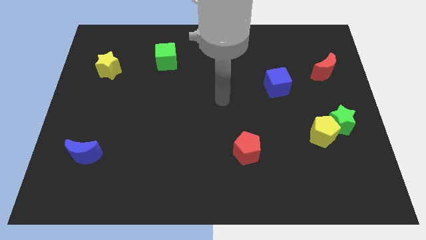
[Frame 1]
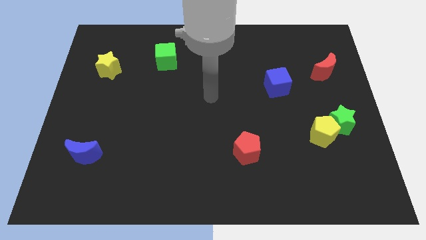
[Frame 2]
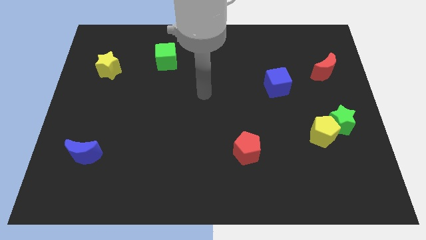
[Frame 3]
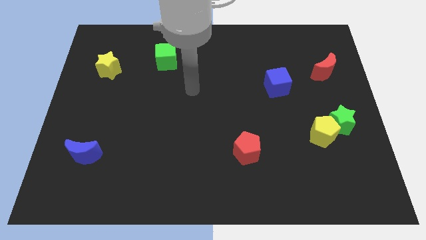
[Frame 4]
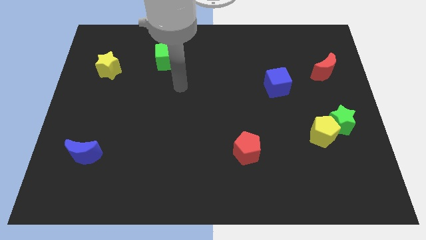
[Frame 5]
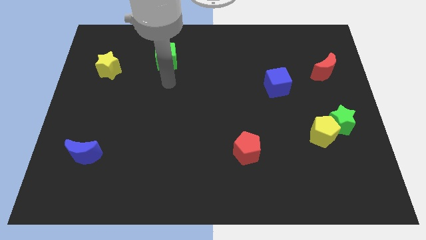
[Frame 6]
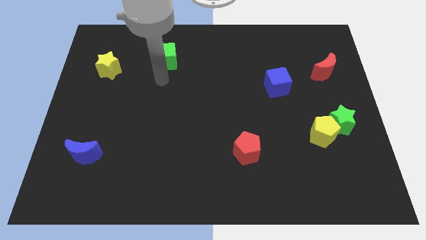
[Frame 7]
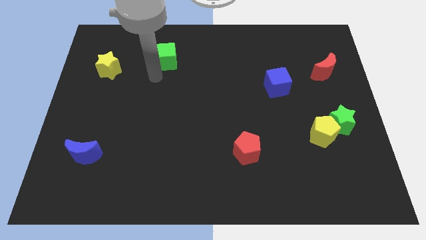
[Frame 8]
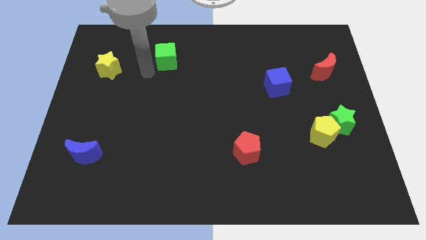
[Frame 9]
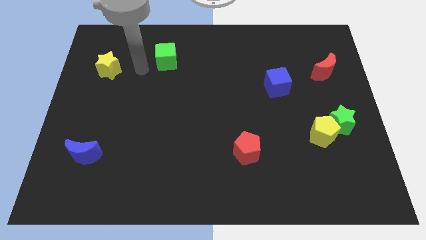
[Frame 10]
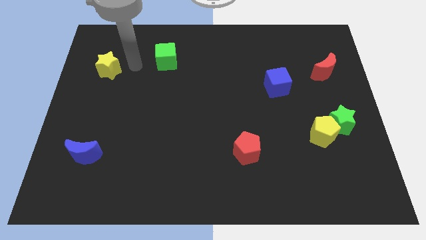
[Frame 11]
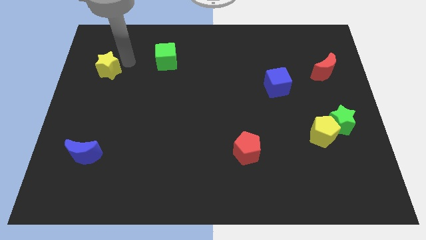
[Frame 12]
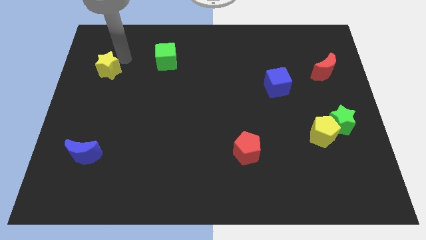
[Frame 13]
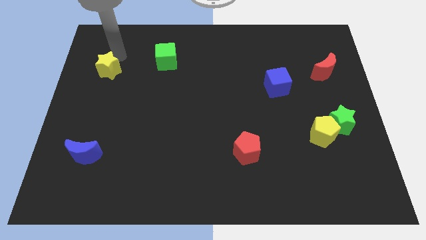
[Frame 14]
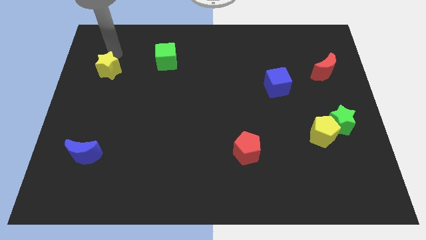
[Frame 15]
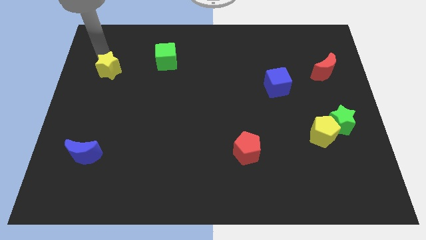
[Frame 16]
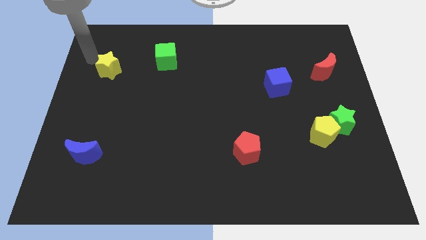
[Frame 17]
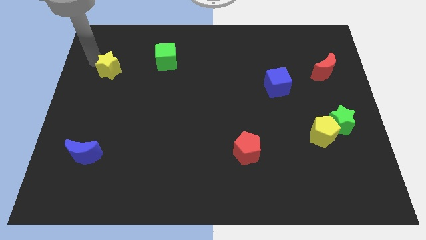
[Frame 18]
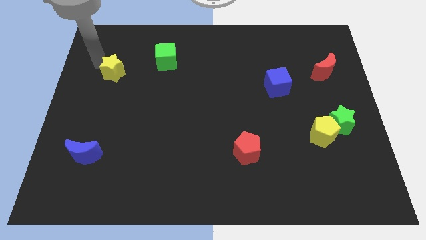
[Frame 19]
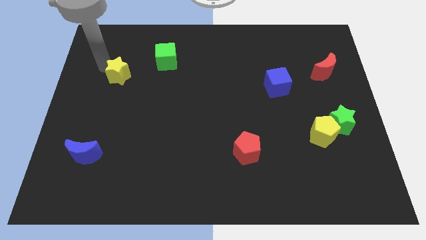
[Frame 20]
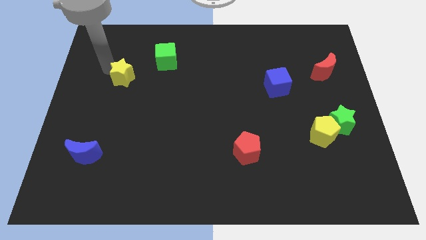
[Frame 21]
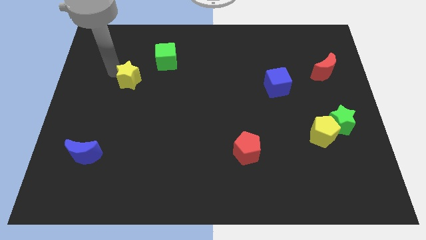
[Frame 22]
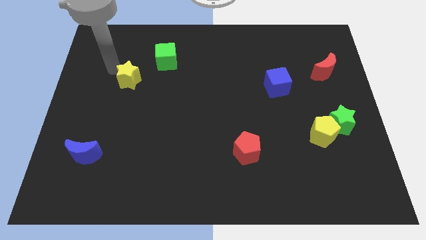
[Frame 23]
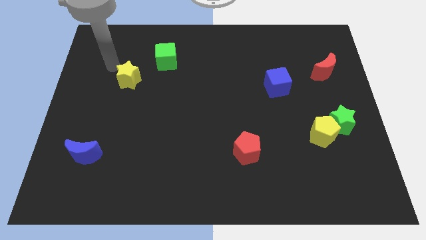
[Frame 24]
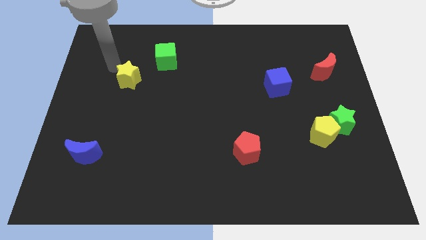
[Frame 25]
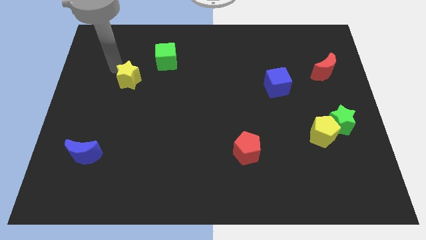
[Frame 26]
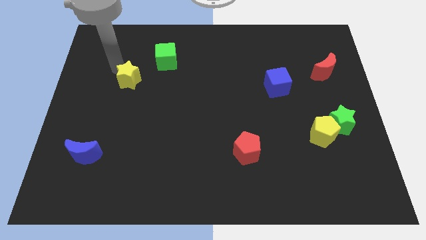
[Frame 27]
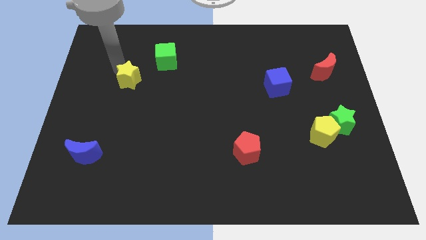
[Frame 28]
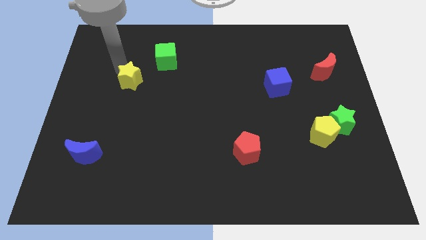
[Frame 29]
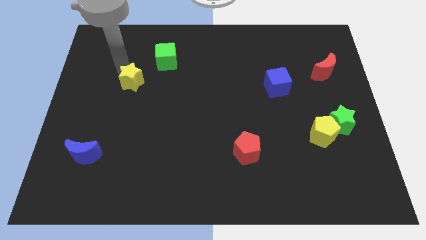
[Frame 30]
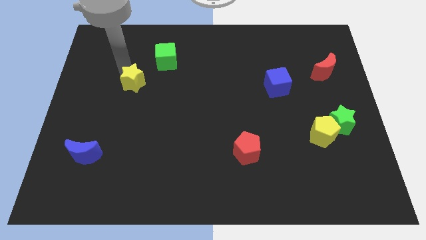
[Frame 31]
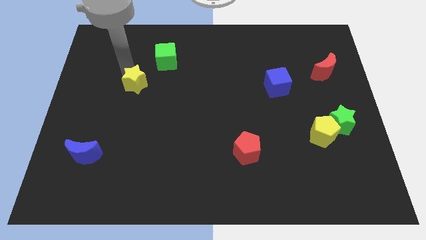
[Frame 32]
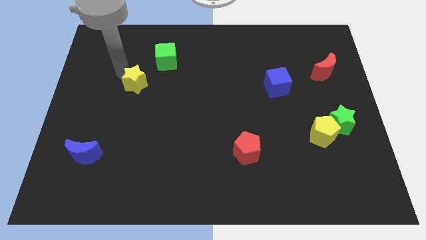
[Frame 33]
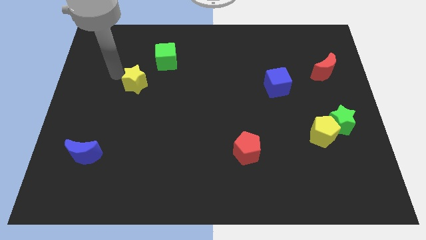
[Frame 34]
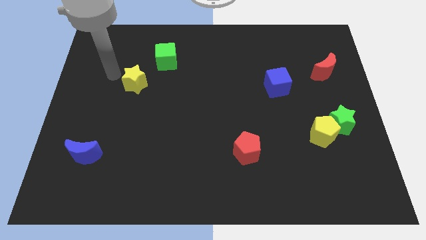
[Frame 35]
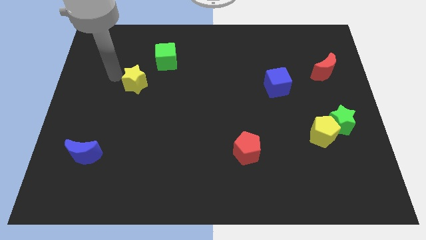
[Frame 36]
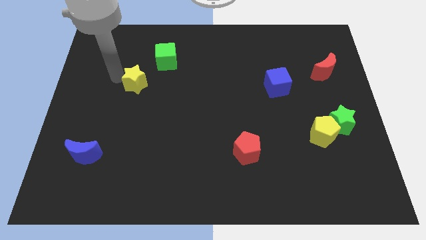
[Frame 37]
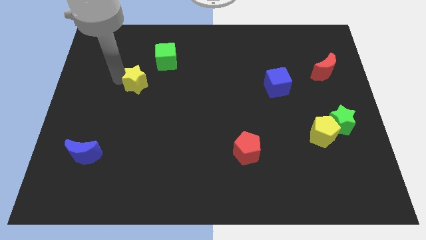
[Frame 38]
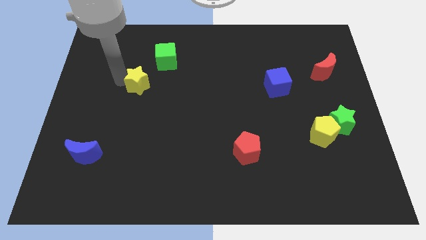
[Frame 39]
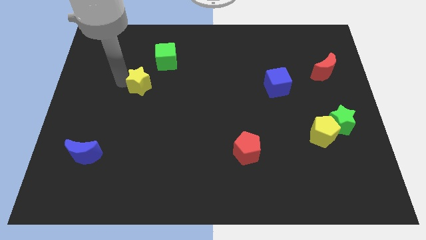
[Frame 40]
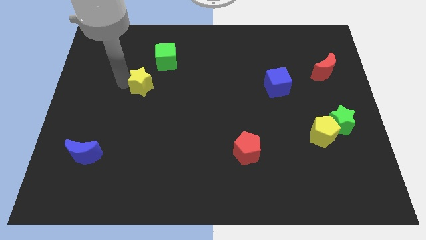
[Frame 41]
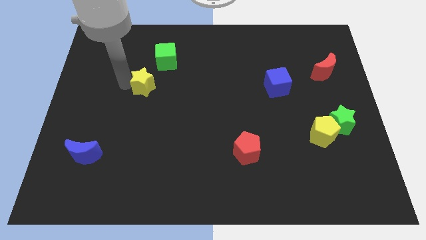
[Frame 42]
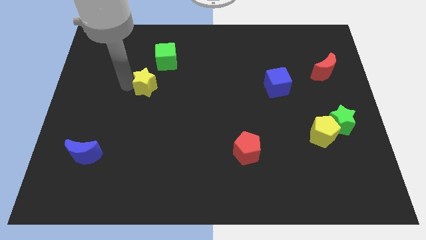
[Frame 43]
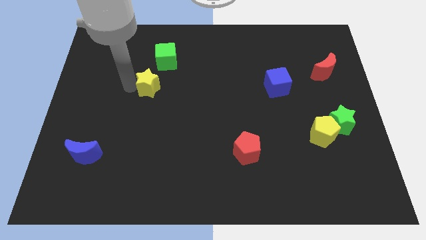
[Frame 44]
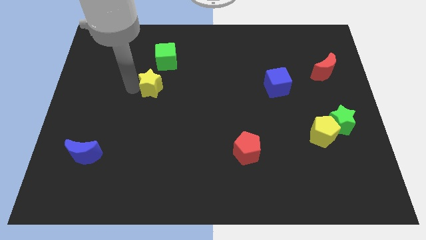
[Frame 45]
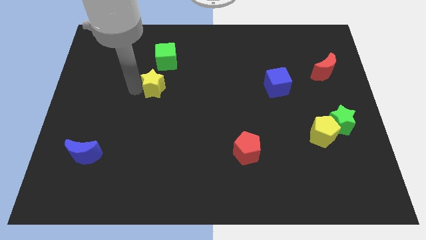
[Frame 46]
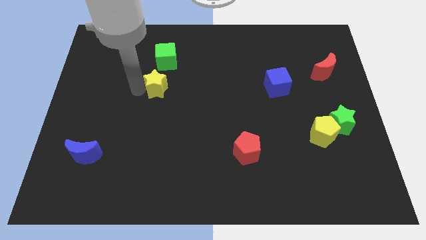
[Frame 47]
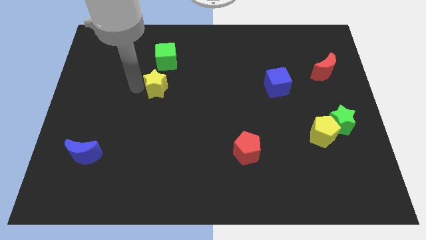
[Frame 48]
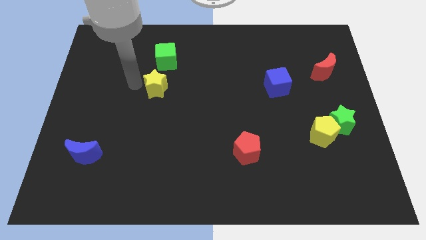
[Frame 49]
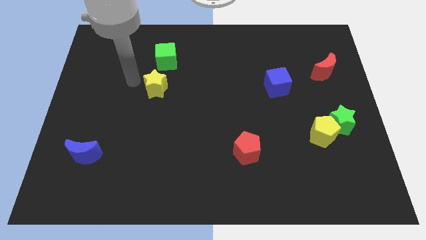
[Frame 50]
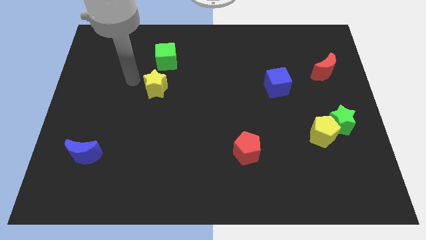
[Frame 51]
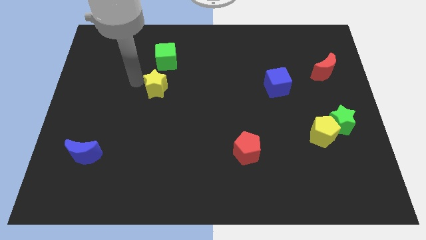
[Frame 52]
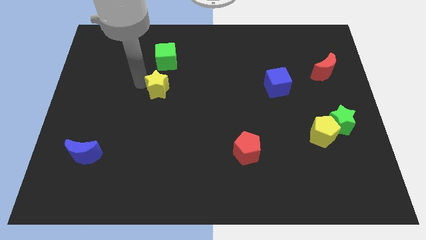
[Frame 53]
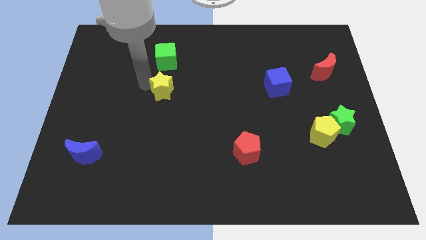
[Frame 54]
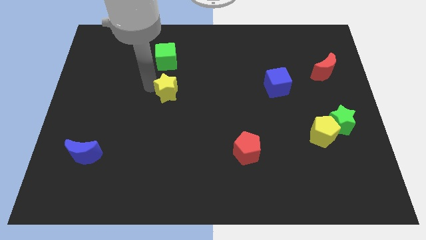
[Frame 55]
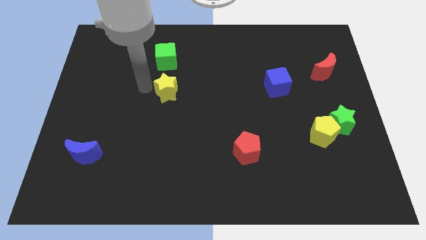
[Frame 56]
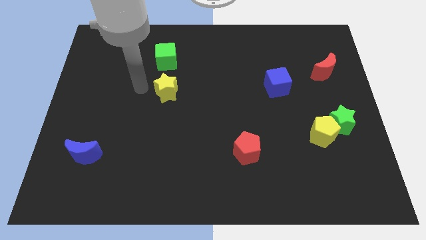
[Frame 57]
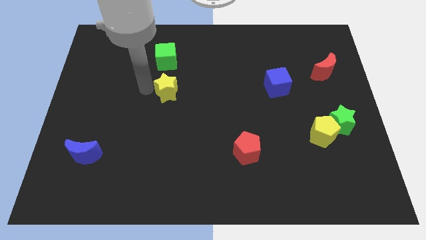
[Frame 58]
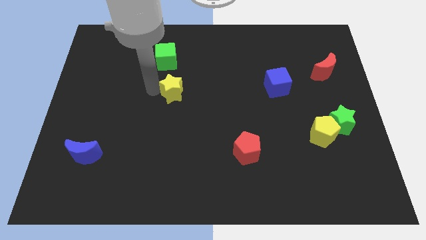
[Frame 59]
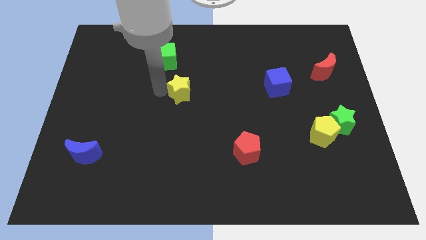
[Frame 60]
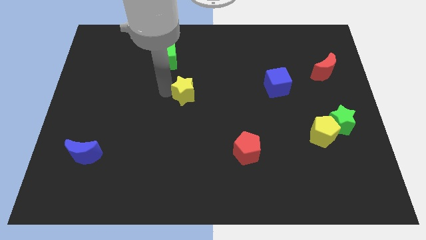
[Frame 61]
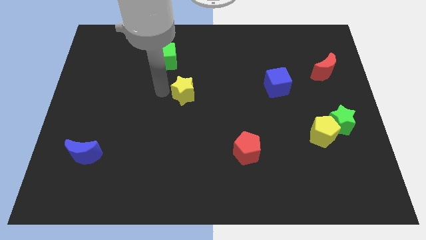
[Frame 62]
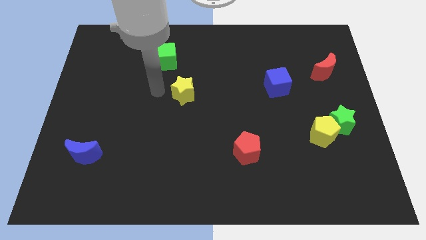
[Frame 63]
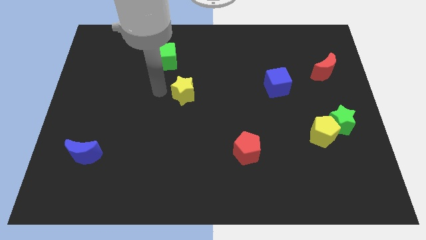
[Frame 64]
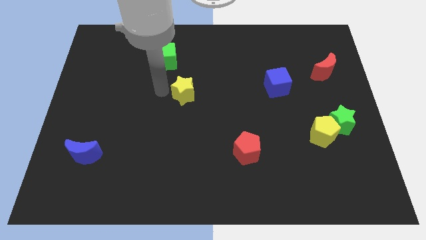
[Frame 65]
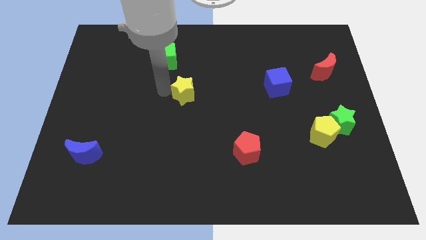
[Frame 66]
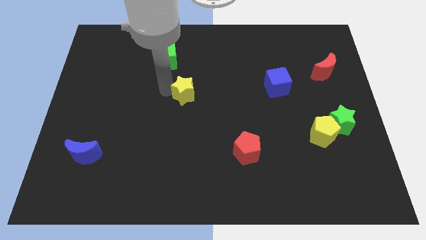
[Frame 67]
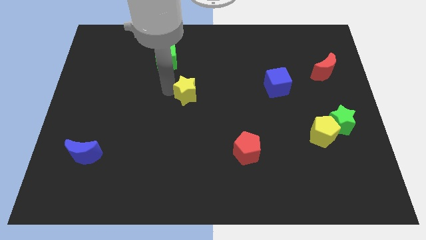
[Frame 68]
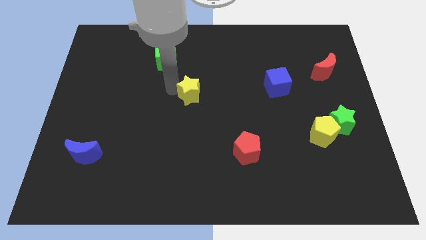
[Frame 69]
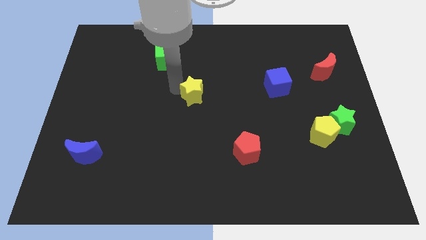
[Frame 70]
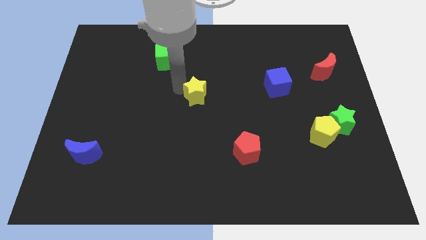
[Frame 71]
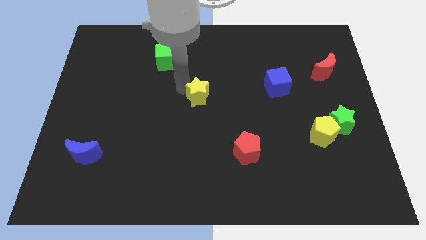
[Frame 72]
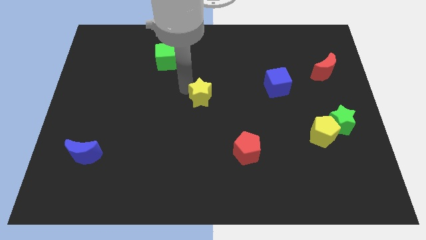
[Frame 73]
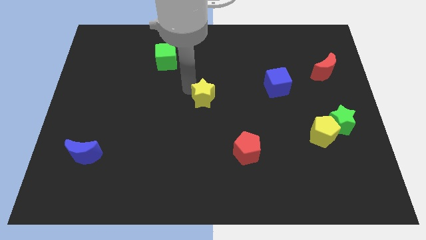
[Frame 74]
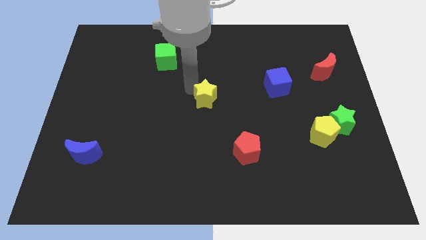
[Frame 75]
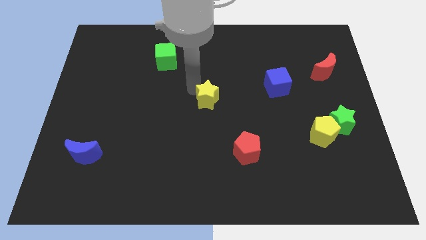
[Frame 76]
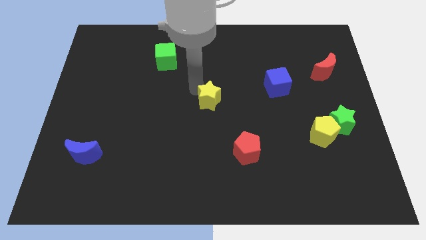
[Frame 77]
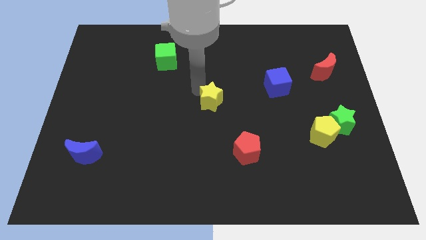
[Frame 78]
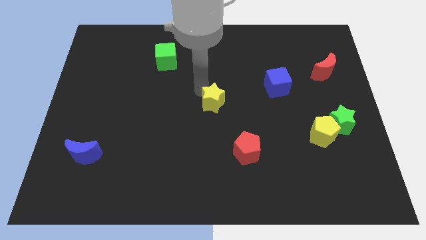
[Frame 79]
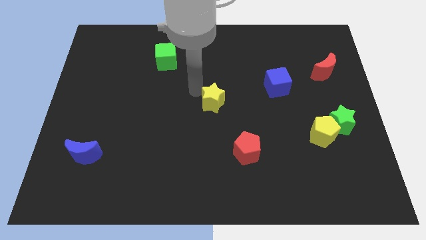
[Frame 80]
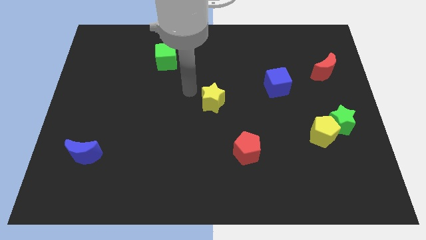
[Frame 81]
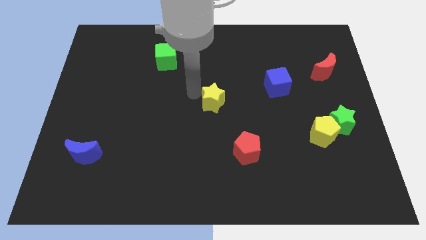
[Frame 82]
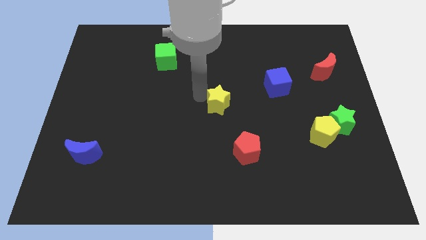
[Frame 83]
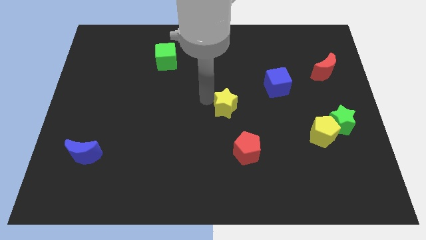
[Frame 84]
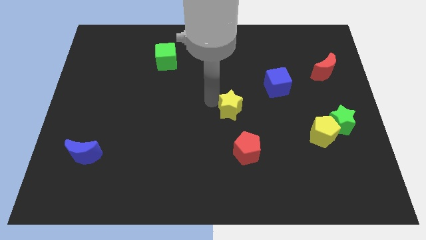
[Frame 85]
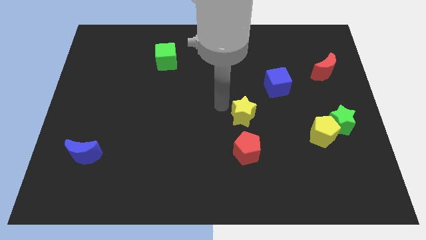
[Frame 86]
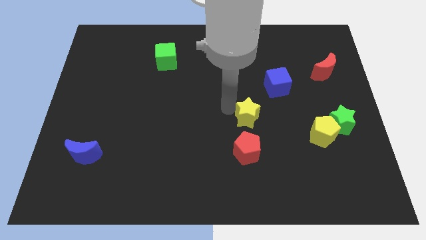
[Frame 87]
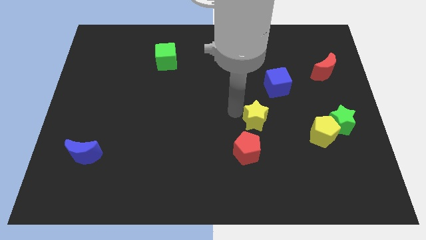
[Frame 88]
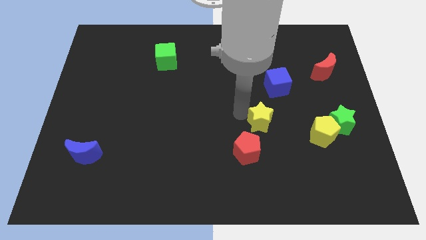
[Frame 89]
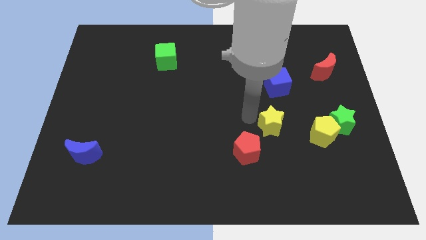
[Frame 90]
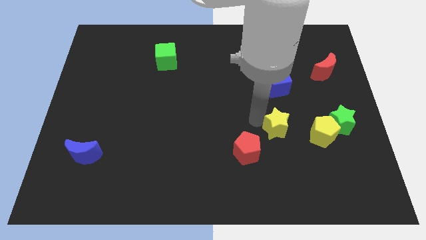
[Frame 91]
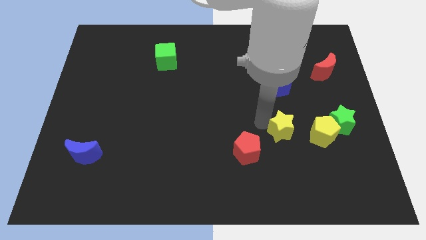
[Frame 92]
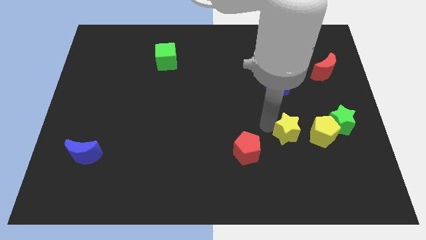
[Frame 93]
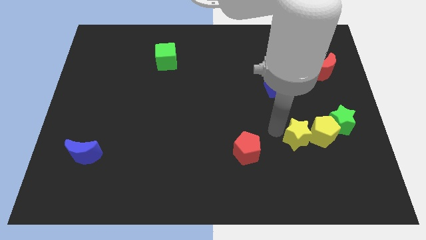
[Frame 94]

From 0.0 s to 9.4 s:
slide the yellow star next to the yellow pentagon
